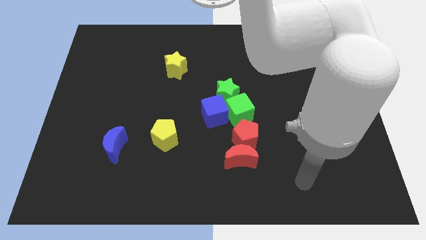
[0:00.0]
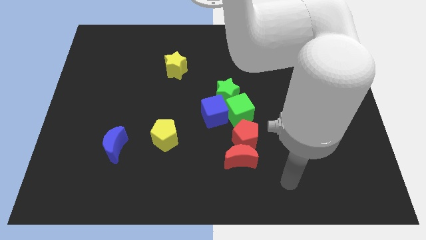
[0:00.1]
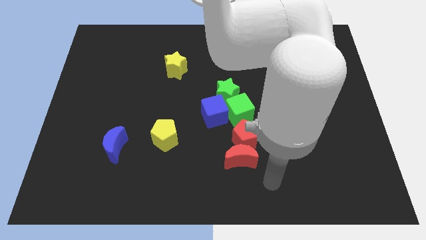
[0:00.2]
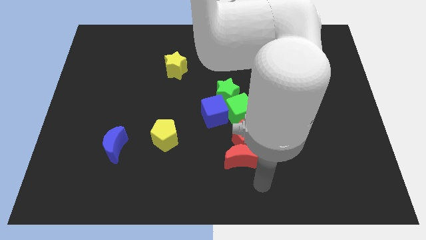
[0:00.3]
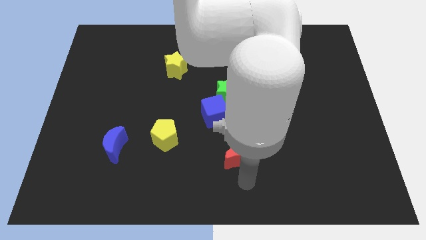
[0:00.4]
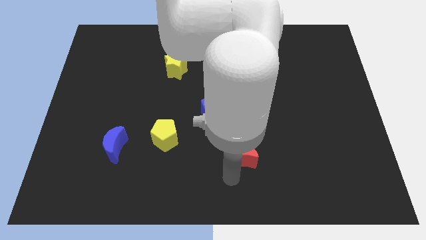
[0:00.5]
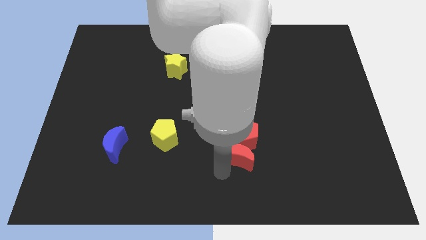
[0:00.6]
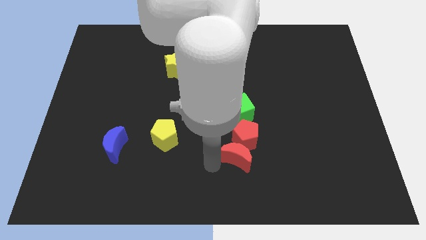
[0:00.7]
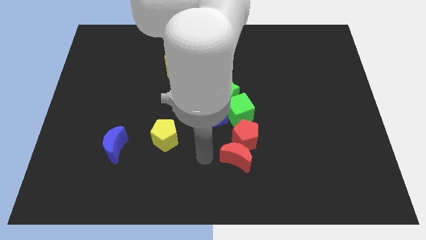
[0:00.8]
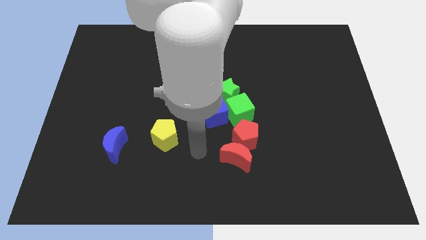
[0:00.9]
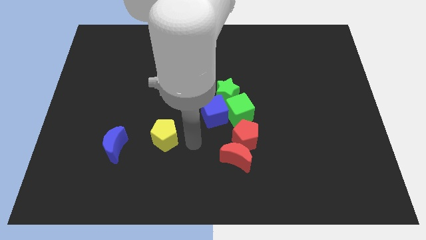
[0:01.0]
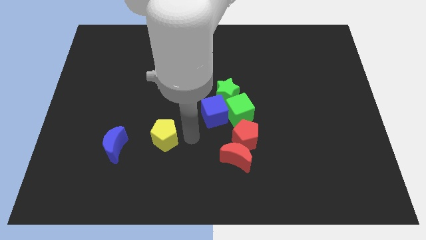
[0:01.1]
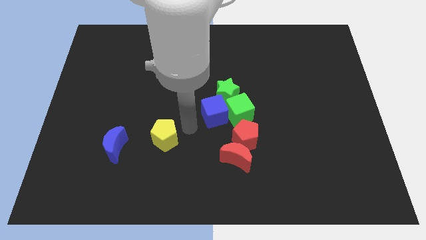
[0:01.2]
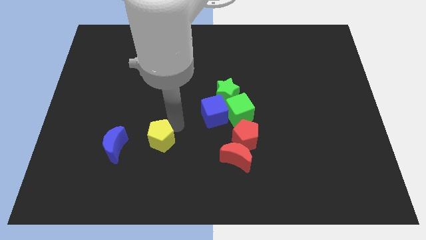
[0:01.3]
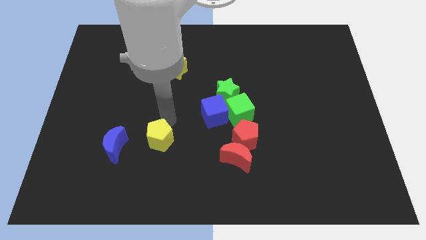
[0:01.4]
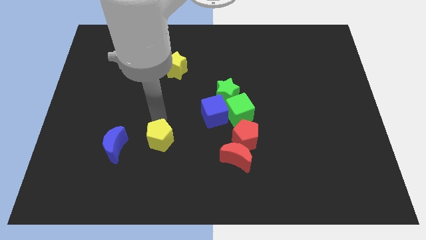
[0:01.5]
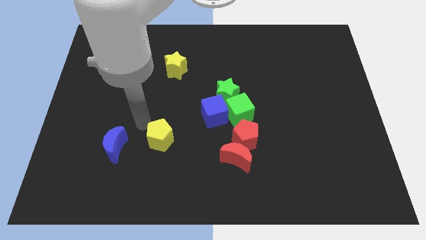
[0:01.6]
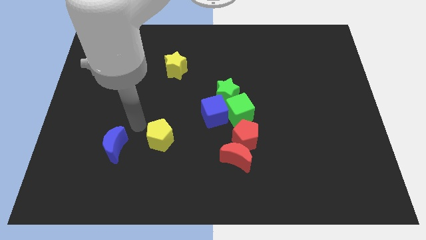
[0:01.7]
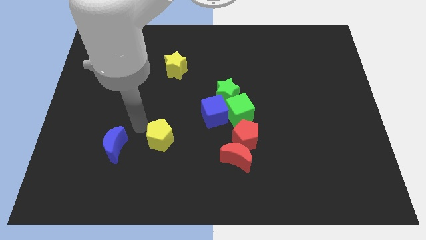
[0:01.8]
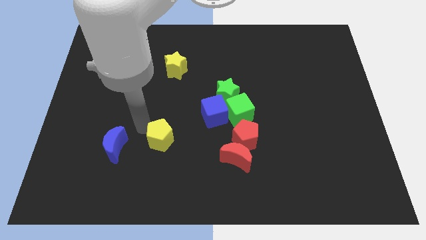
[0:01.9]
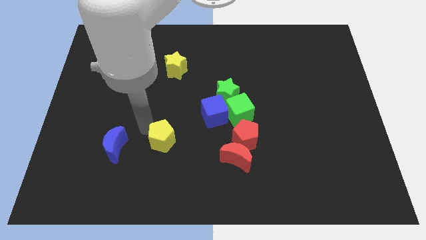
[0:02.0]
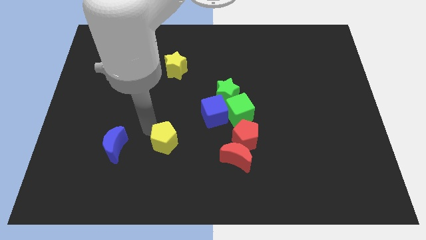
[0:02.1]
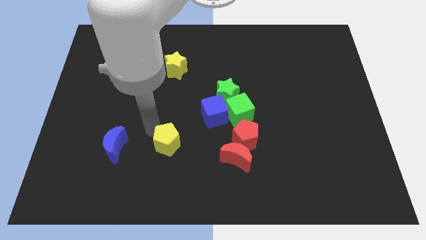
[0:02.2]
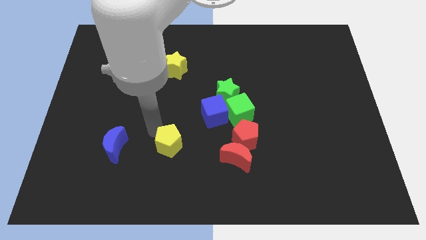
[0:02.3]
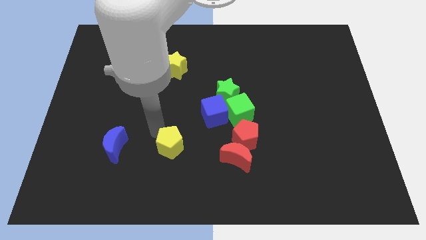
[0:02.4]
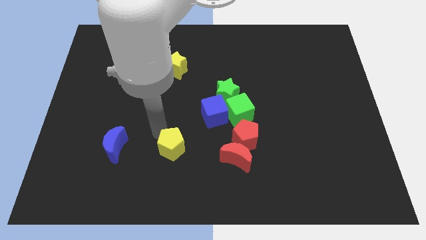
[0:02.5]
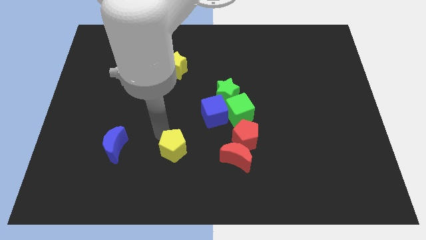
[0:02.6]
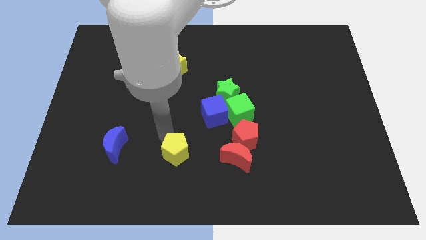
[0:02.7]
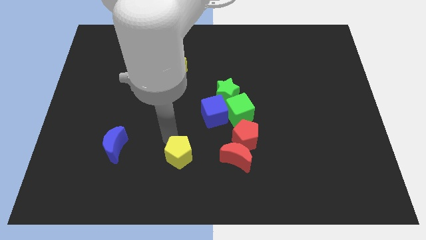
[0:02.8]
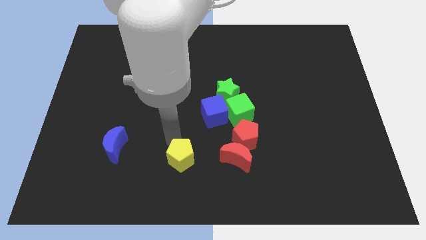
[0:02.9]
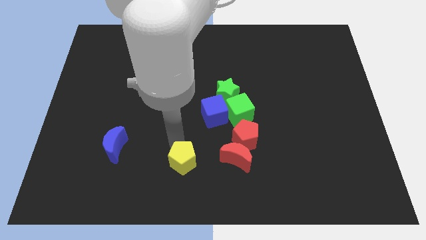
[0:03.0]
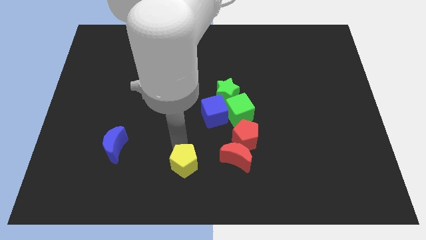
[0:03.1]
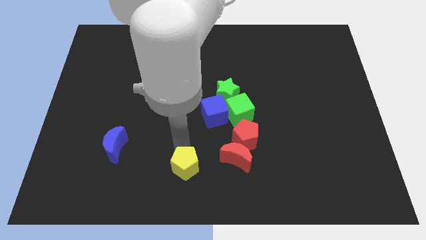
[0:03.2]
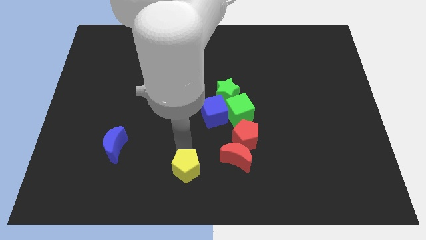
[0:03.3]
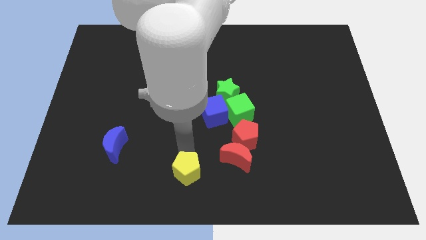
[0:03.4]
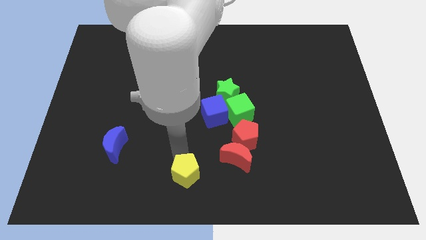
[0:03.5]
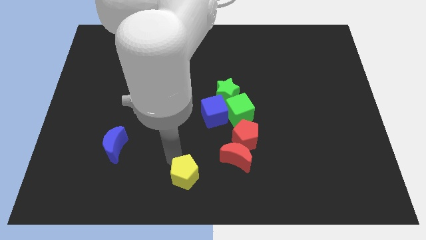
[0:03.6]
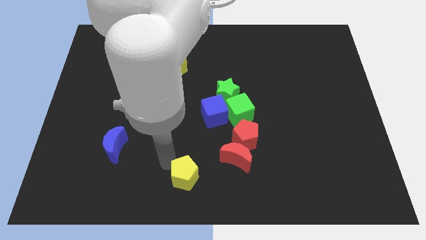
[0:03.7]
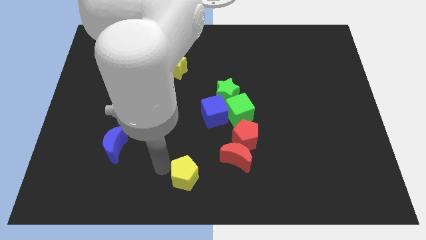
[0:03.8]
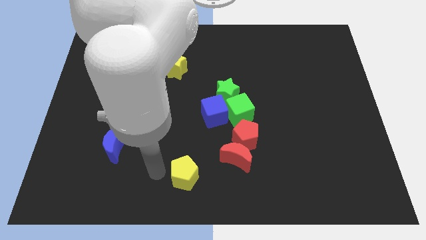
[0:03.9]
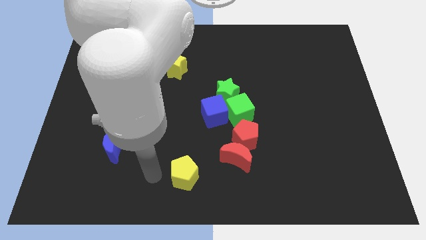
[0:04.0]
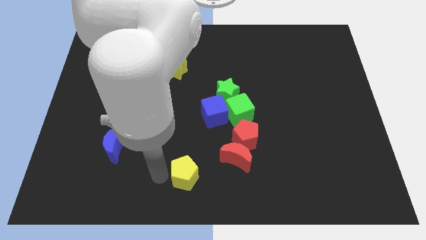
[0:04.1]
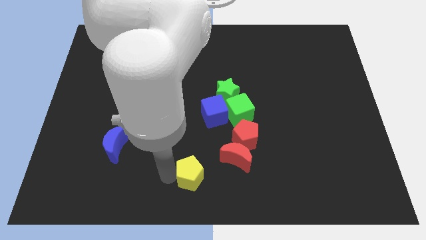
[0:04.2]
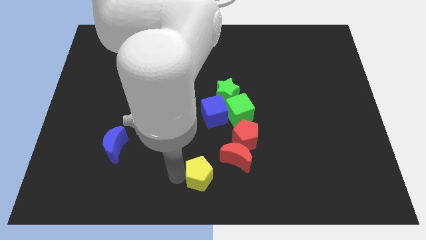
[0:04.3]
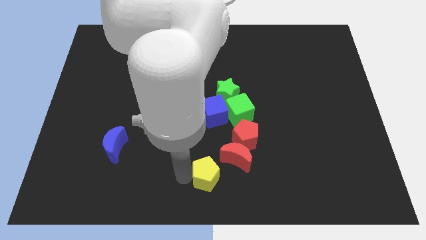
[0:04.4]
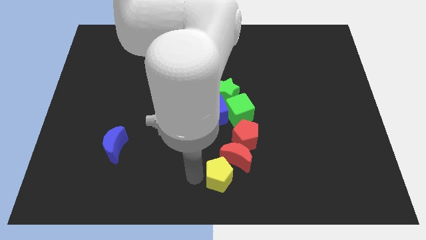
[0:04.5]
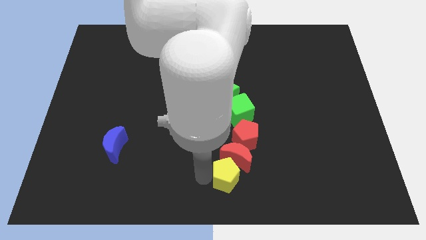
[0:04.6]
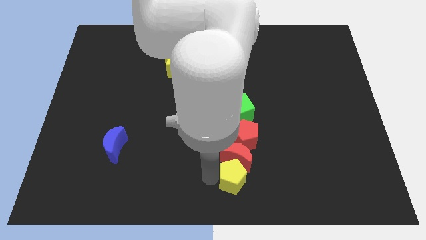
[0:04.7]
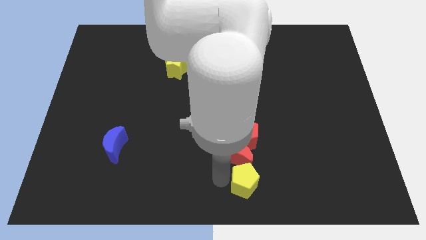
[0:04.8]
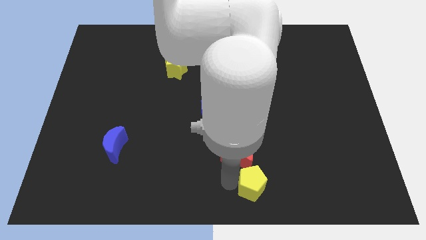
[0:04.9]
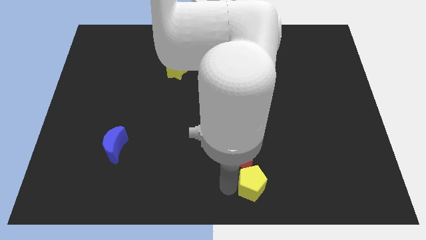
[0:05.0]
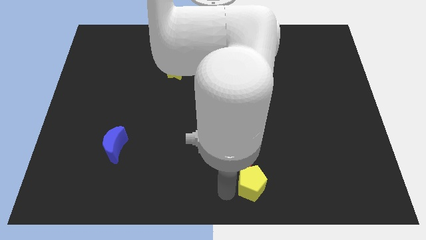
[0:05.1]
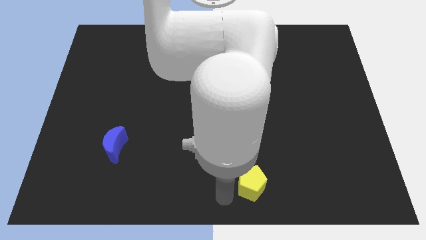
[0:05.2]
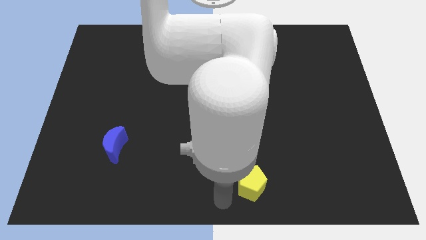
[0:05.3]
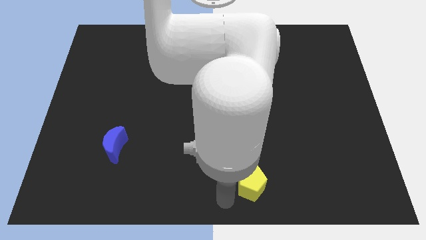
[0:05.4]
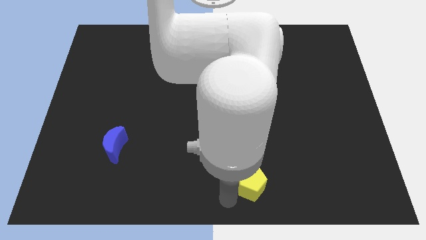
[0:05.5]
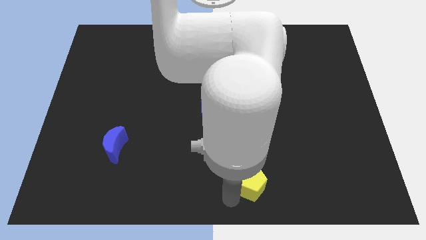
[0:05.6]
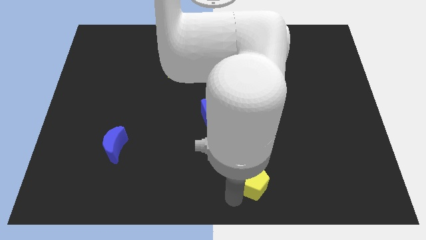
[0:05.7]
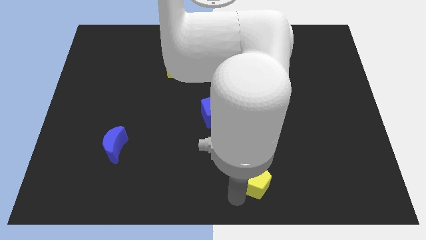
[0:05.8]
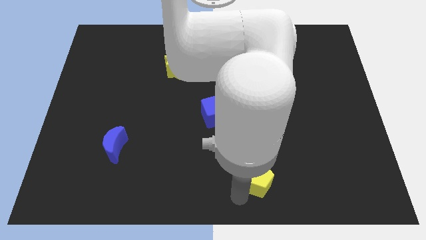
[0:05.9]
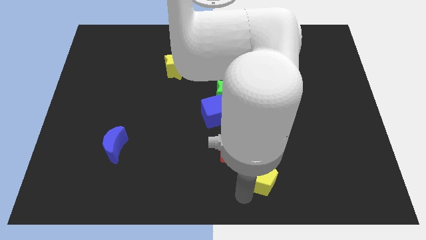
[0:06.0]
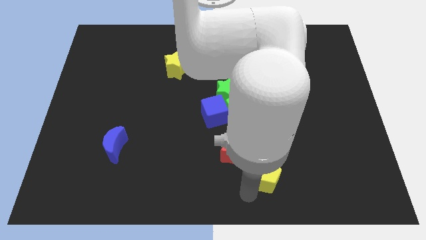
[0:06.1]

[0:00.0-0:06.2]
slide the yellow pentagon to the right of the red moon

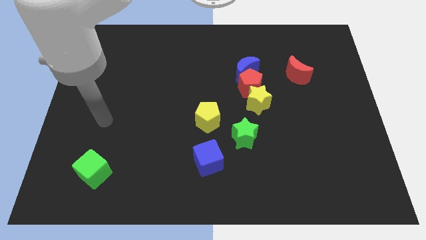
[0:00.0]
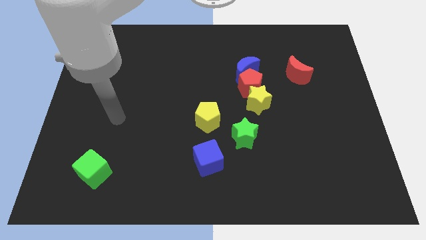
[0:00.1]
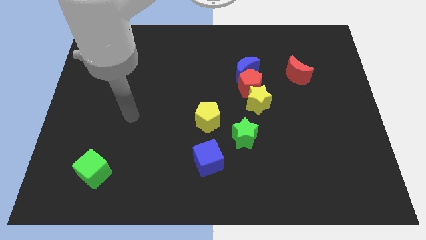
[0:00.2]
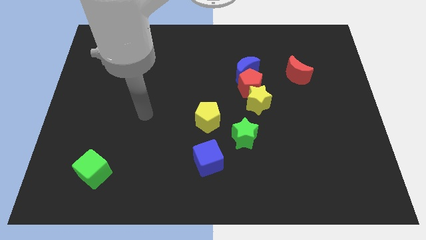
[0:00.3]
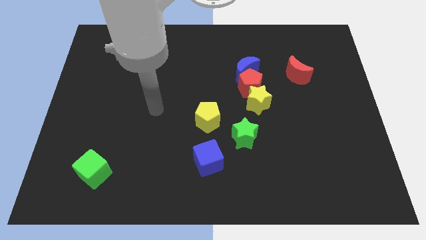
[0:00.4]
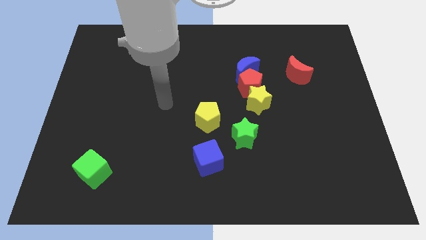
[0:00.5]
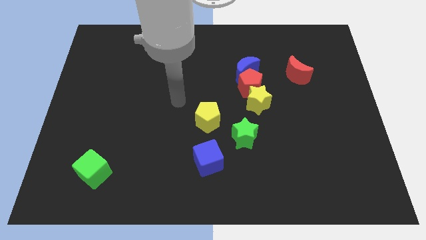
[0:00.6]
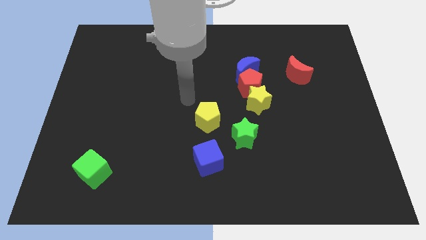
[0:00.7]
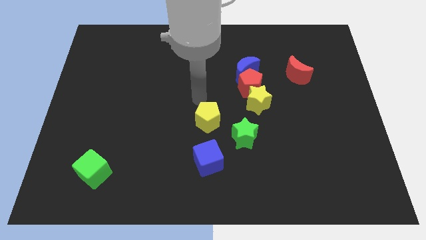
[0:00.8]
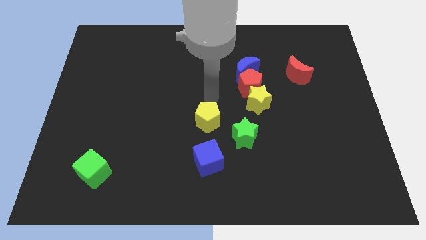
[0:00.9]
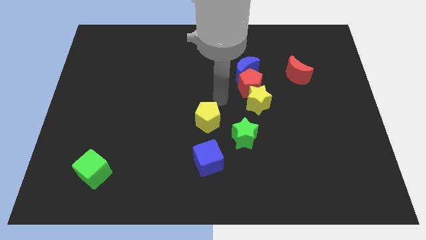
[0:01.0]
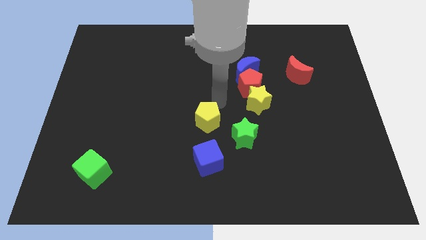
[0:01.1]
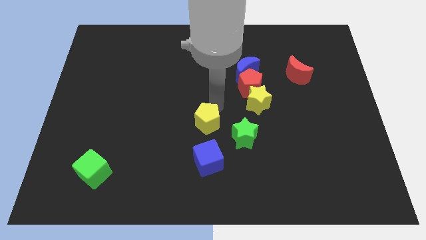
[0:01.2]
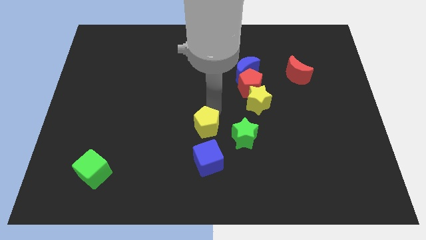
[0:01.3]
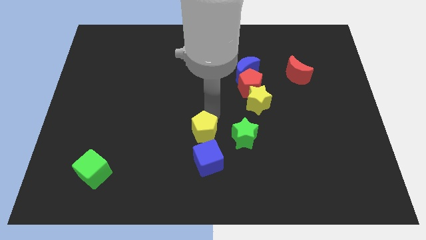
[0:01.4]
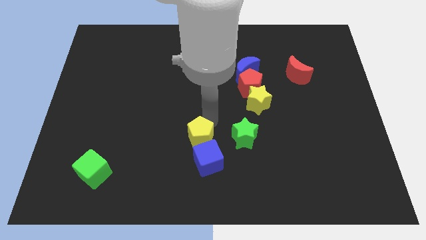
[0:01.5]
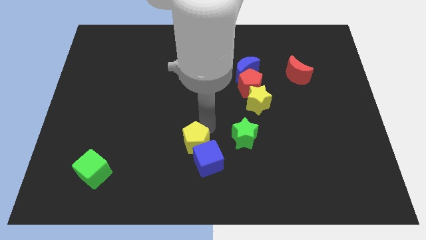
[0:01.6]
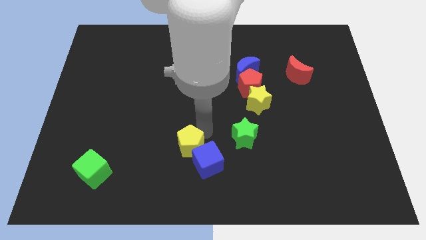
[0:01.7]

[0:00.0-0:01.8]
push the yellow pentagon just left of the blue cube
